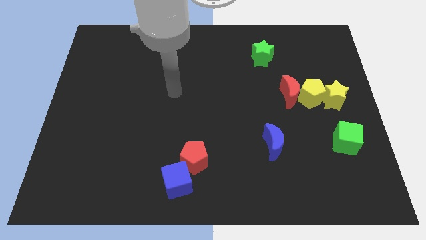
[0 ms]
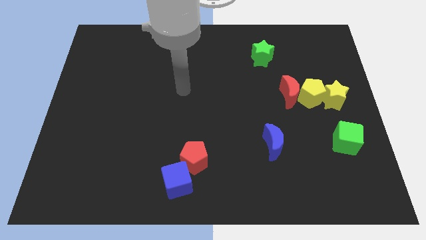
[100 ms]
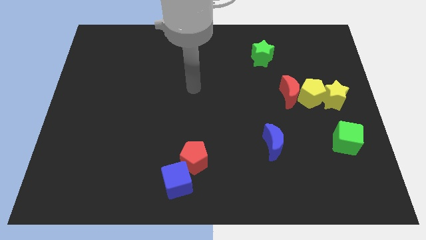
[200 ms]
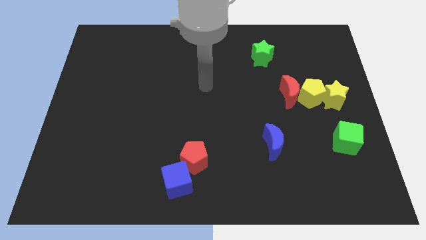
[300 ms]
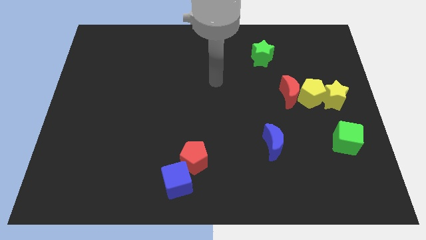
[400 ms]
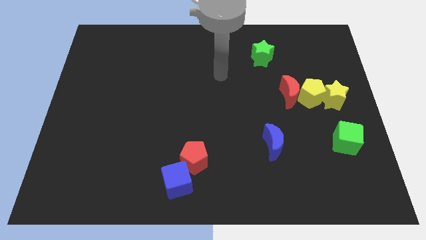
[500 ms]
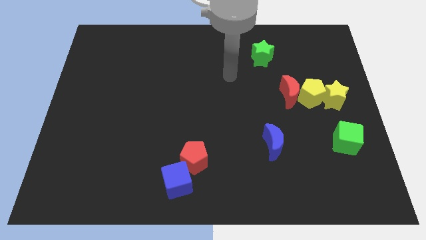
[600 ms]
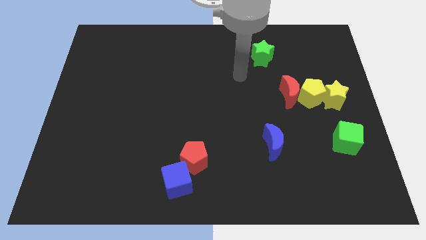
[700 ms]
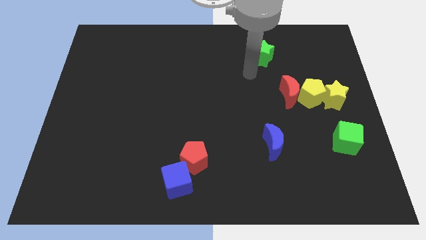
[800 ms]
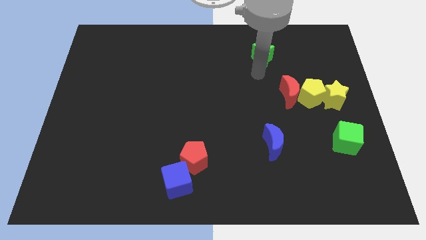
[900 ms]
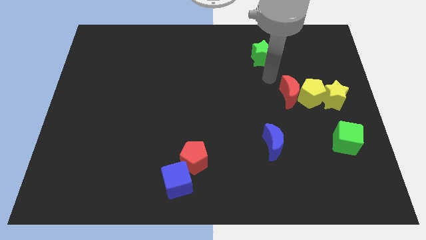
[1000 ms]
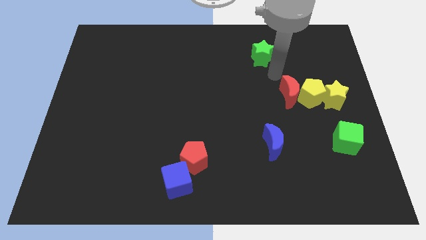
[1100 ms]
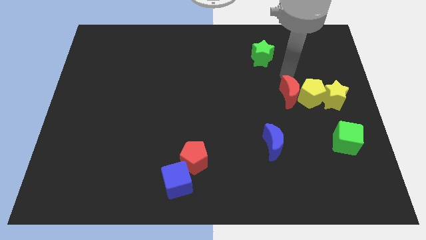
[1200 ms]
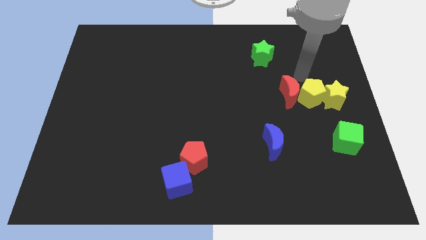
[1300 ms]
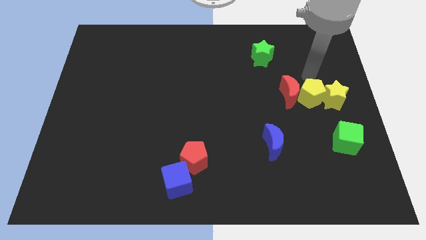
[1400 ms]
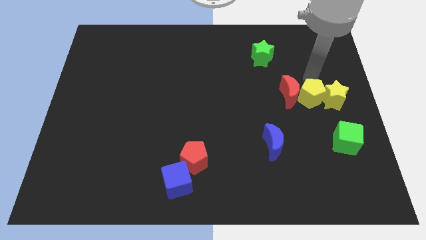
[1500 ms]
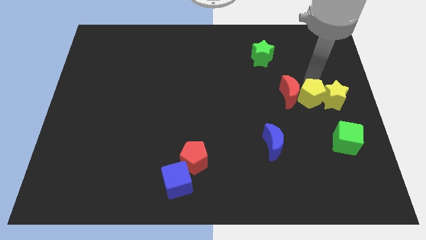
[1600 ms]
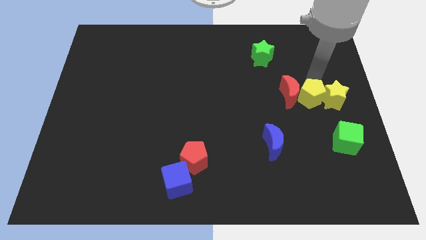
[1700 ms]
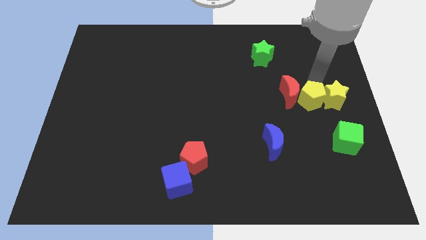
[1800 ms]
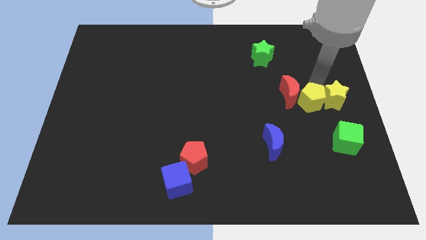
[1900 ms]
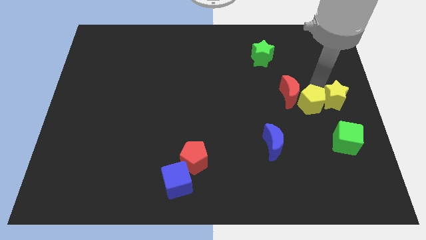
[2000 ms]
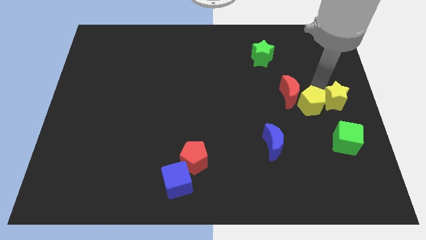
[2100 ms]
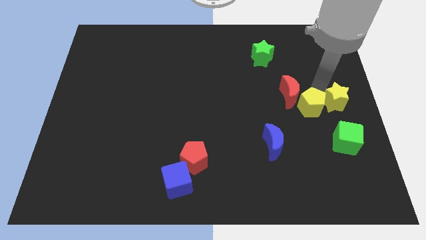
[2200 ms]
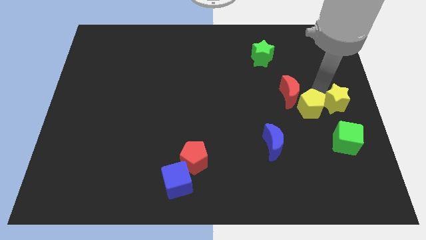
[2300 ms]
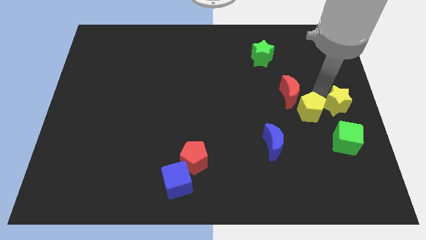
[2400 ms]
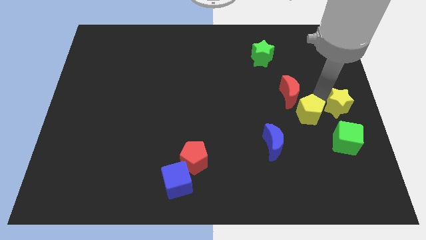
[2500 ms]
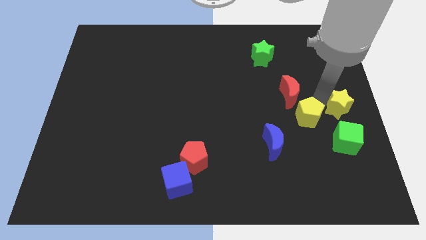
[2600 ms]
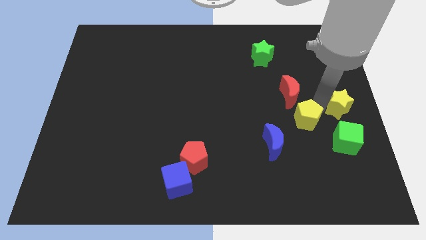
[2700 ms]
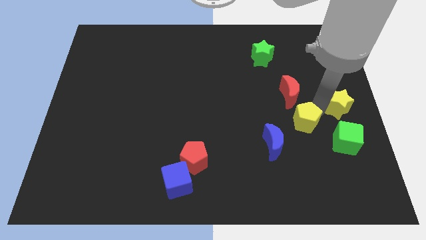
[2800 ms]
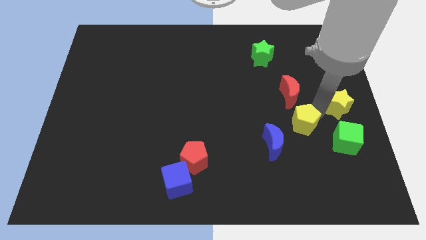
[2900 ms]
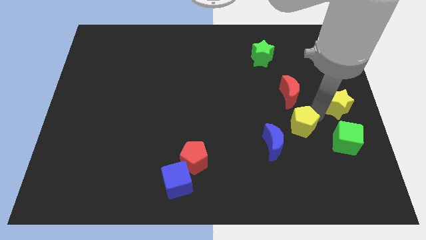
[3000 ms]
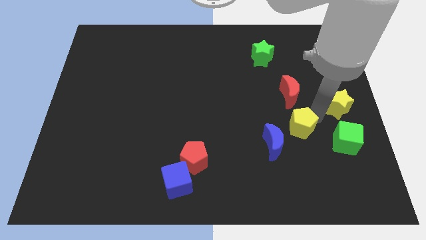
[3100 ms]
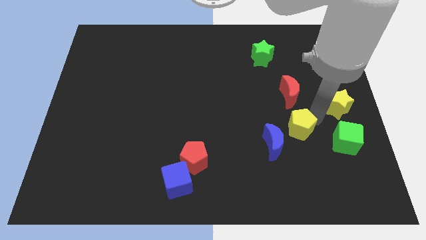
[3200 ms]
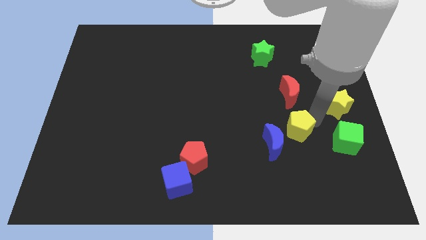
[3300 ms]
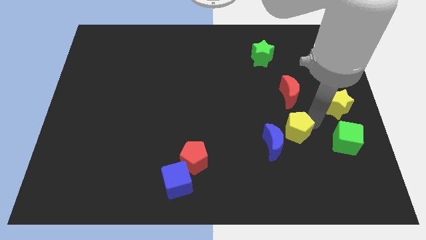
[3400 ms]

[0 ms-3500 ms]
move the yellow pentagon away from the red moon and yellow star

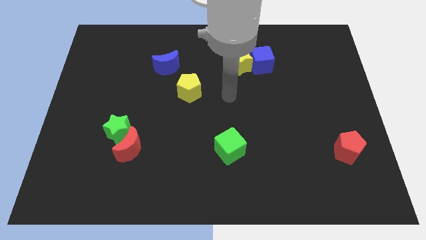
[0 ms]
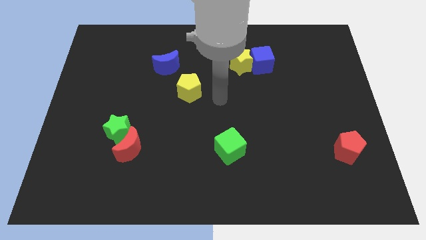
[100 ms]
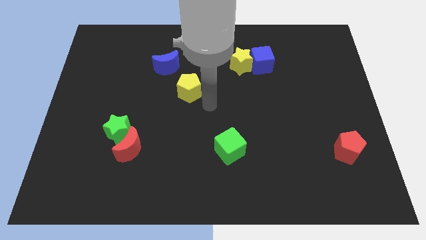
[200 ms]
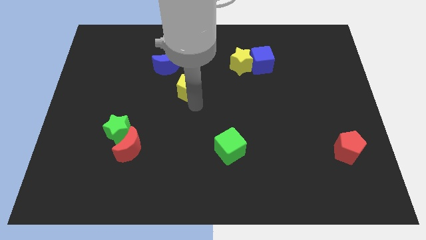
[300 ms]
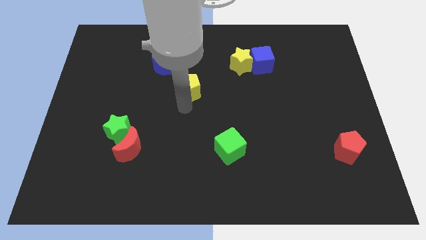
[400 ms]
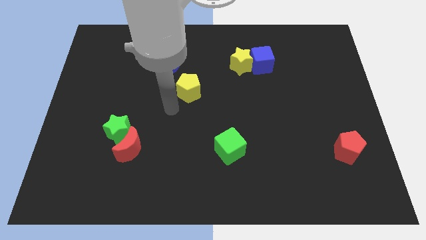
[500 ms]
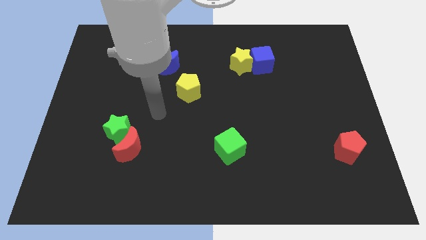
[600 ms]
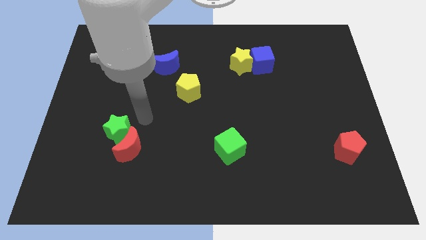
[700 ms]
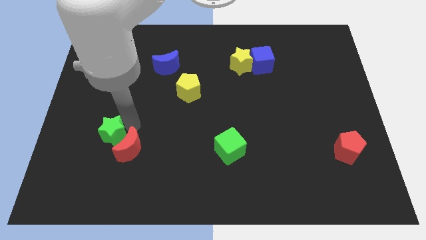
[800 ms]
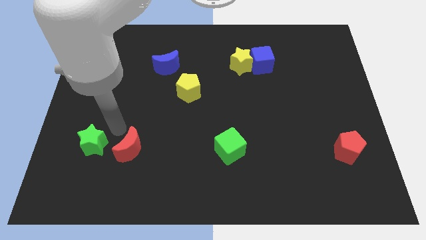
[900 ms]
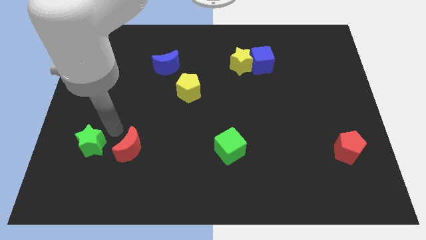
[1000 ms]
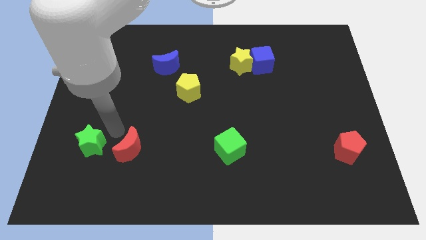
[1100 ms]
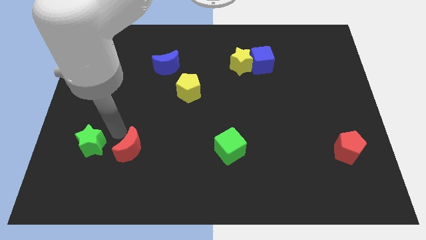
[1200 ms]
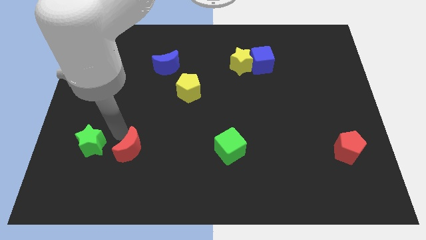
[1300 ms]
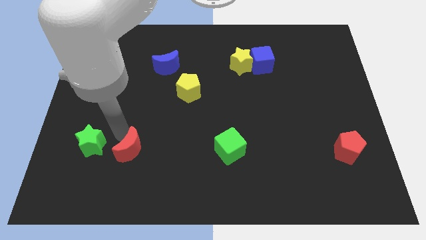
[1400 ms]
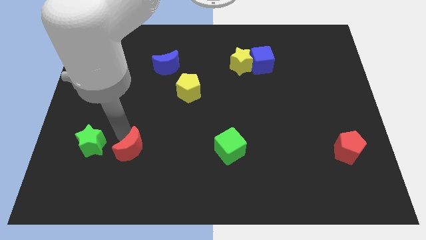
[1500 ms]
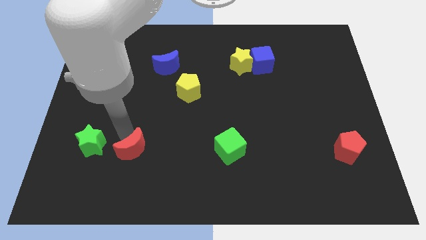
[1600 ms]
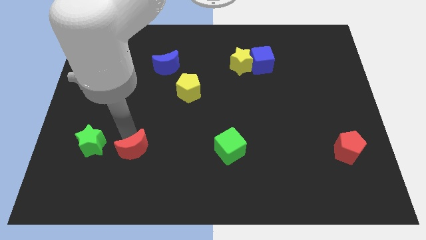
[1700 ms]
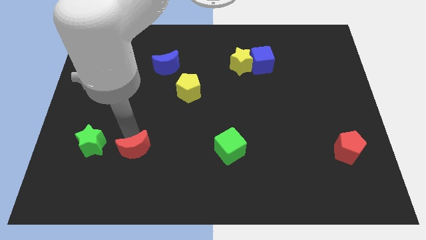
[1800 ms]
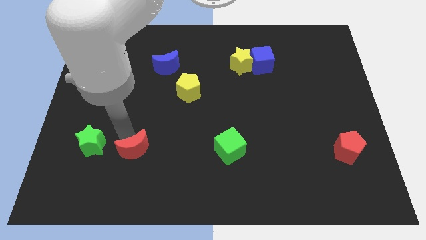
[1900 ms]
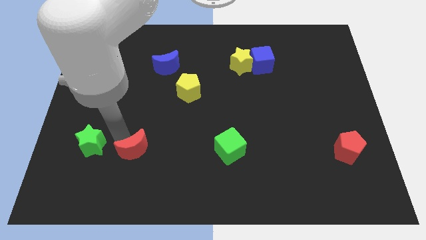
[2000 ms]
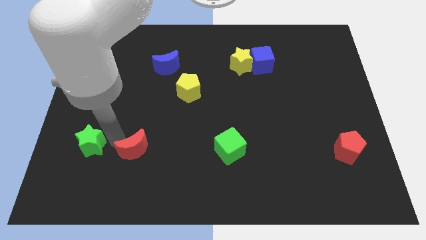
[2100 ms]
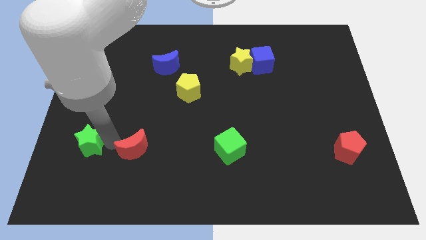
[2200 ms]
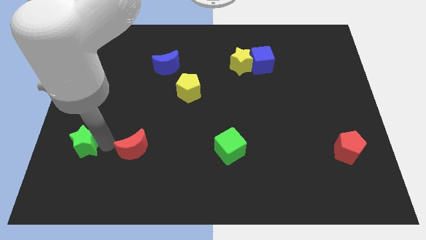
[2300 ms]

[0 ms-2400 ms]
separate the red moon from the green star

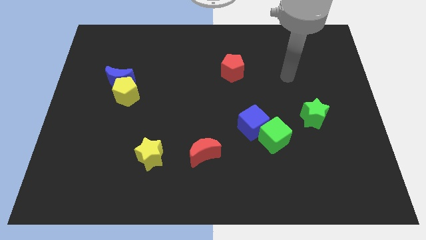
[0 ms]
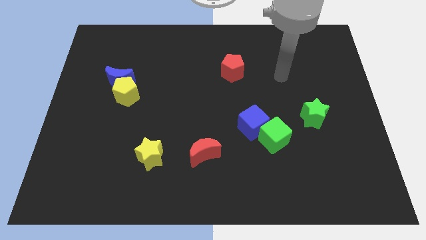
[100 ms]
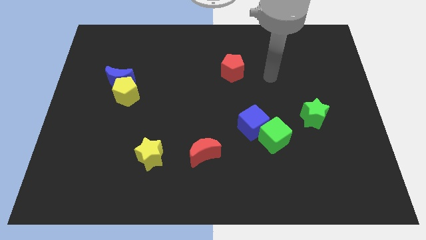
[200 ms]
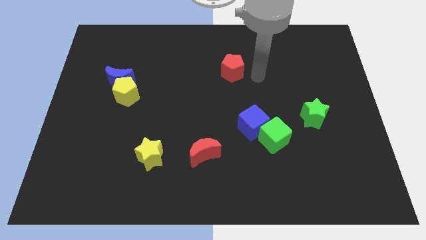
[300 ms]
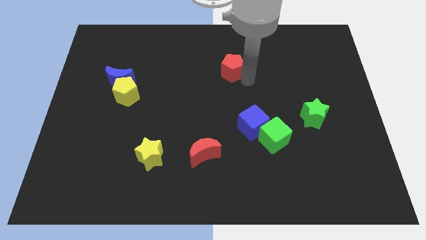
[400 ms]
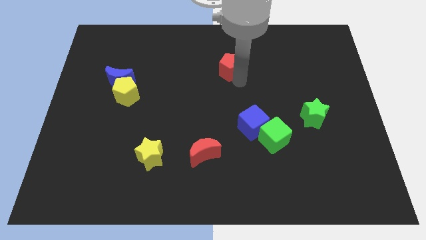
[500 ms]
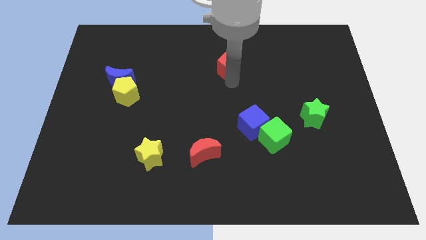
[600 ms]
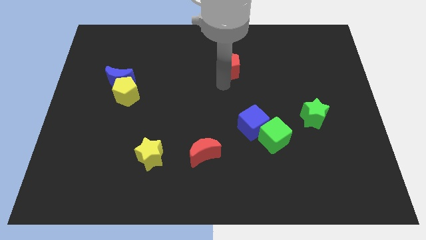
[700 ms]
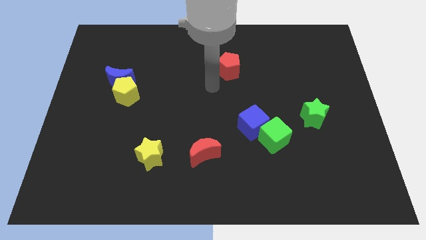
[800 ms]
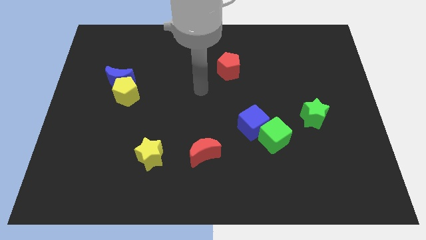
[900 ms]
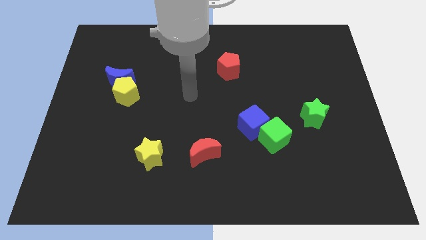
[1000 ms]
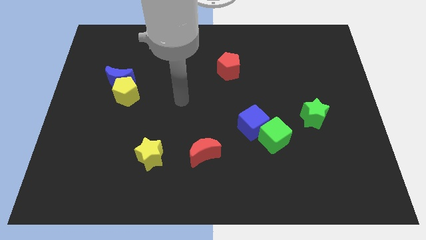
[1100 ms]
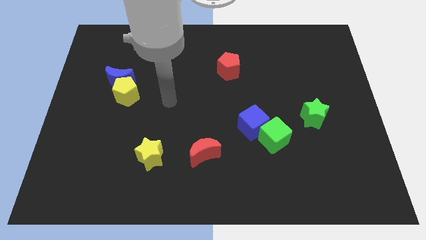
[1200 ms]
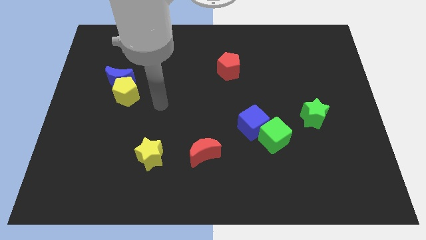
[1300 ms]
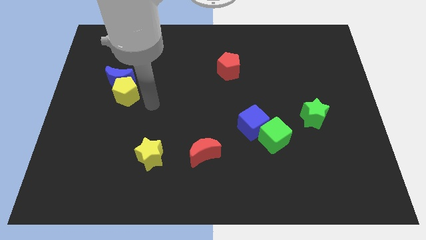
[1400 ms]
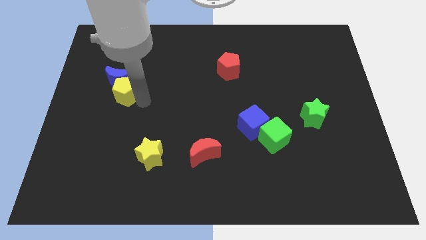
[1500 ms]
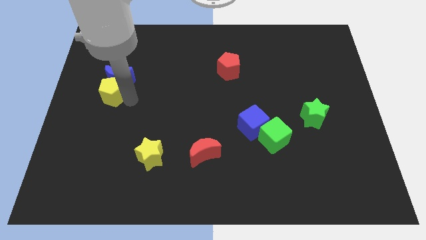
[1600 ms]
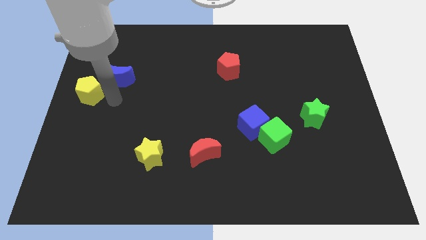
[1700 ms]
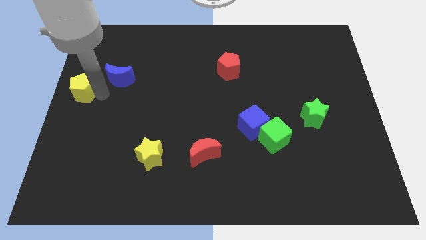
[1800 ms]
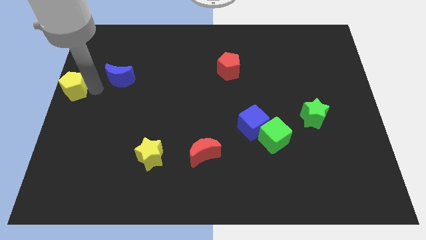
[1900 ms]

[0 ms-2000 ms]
separate the blue moon from the yellow pentagon

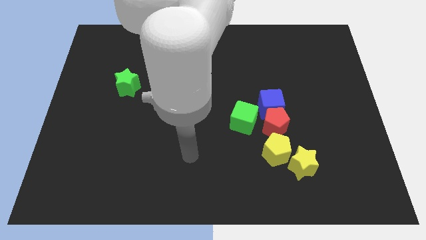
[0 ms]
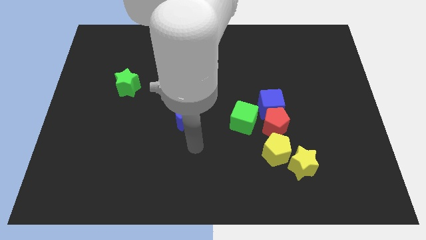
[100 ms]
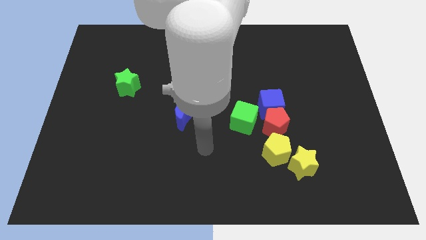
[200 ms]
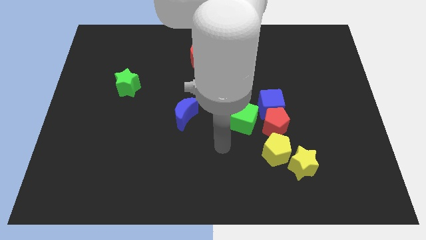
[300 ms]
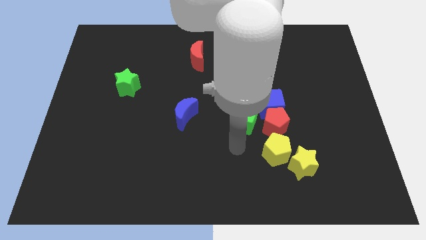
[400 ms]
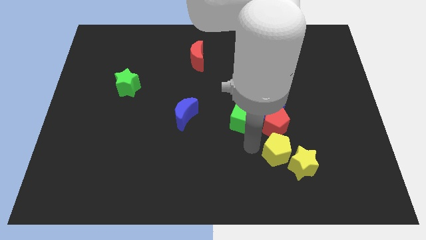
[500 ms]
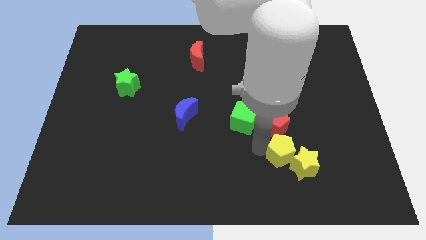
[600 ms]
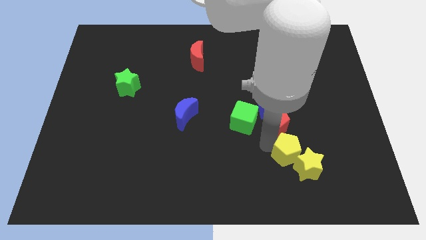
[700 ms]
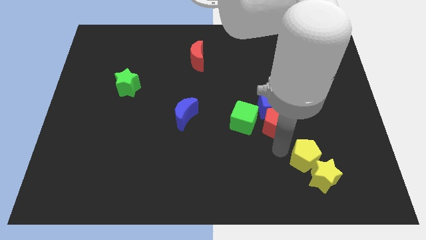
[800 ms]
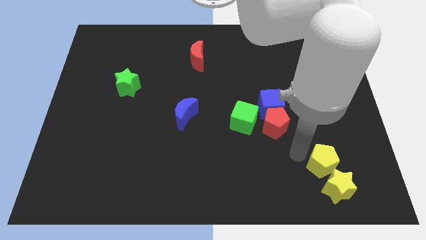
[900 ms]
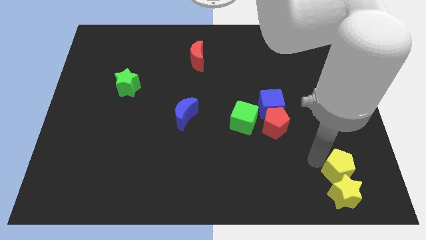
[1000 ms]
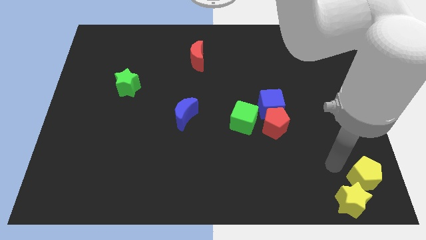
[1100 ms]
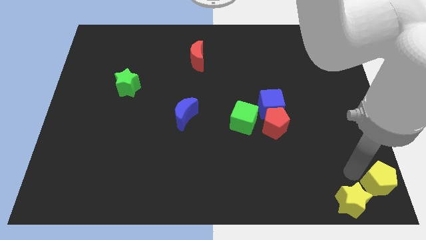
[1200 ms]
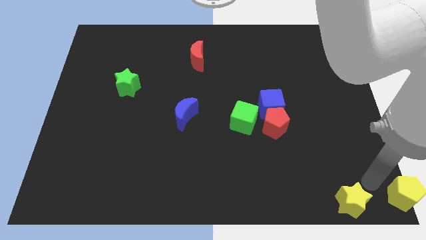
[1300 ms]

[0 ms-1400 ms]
pull the yellow star apart from the yellow pentagon
